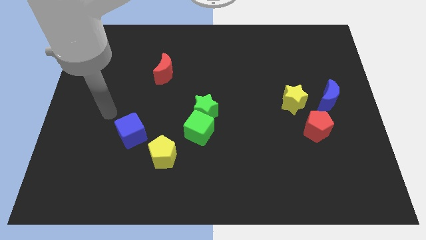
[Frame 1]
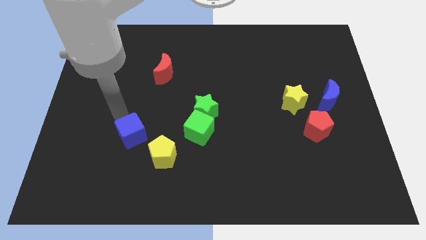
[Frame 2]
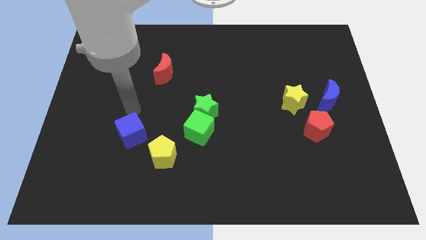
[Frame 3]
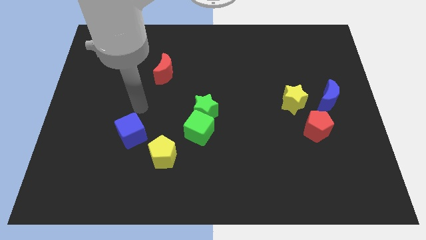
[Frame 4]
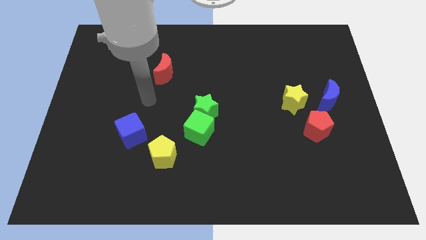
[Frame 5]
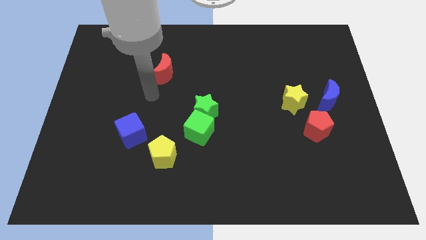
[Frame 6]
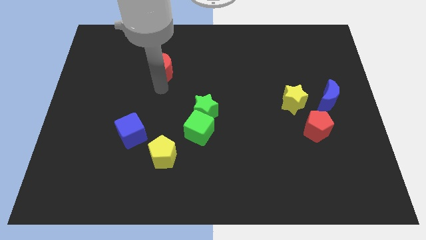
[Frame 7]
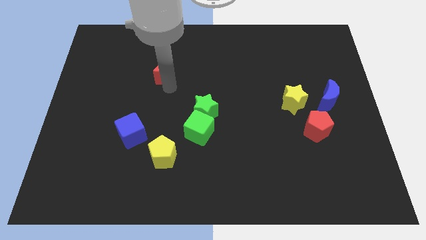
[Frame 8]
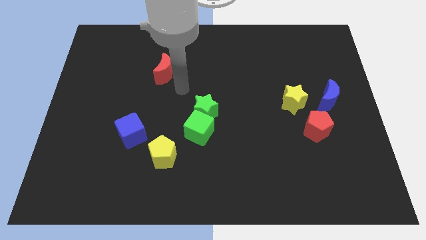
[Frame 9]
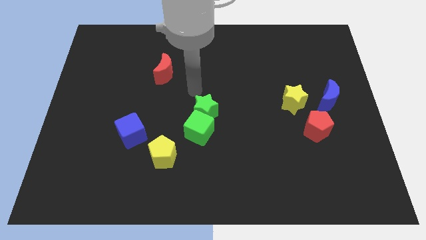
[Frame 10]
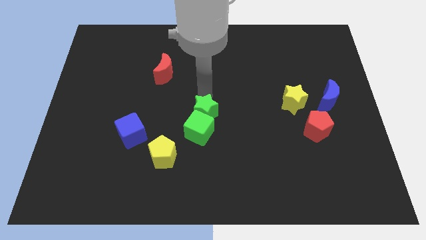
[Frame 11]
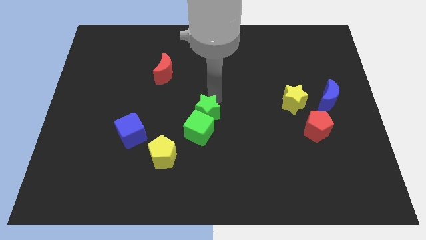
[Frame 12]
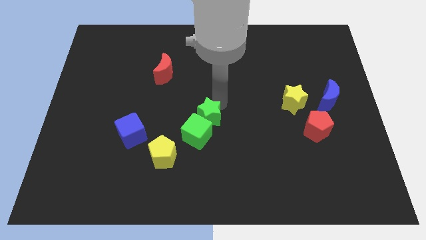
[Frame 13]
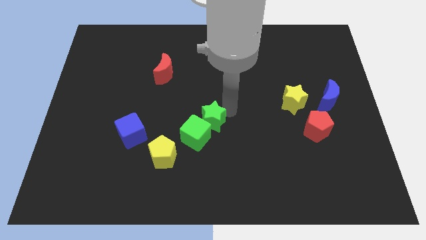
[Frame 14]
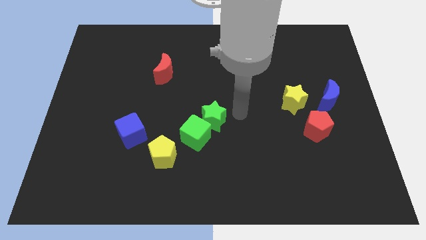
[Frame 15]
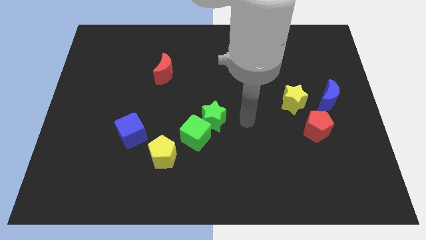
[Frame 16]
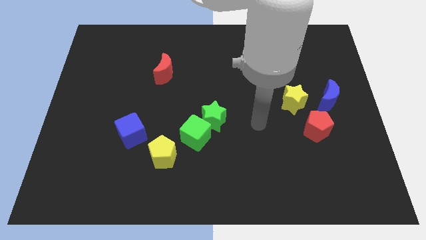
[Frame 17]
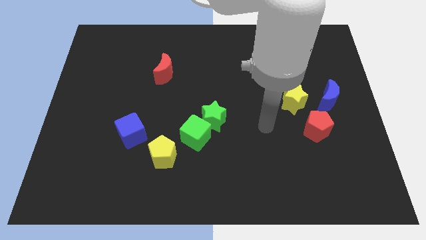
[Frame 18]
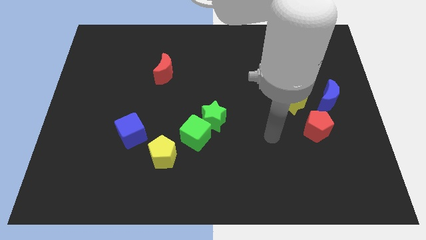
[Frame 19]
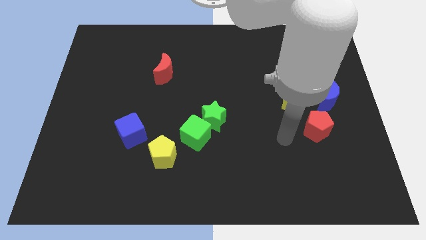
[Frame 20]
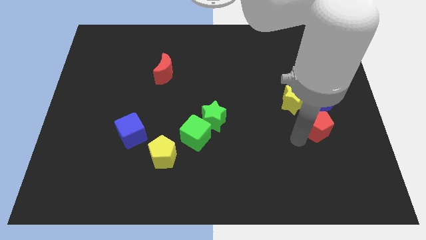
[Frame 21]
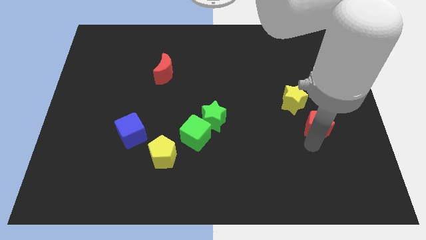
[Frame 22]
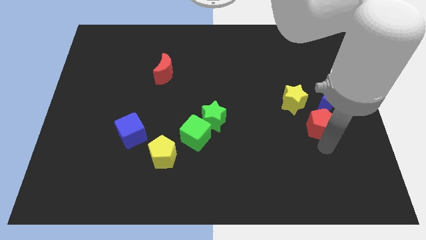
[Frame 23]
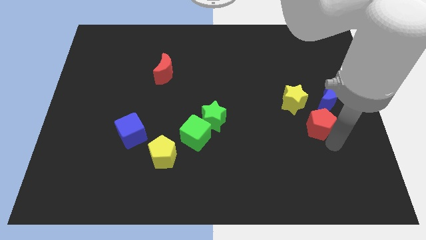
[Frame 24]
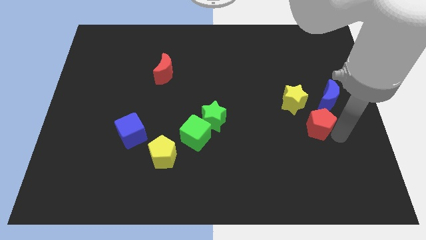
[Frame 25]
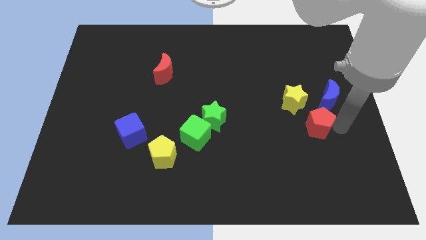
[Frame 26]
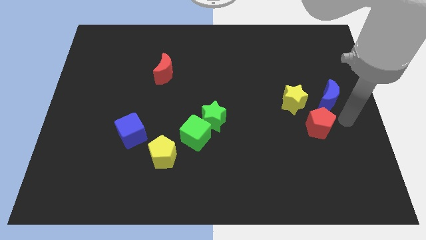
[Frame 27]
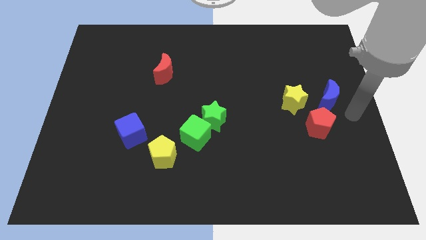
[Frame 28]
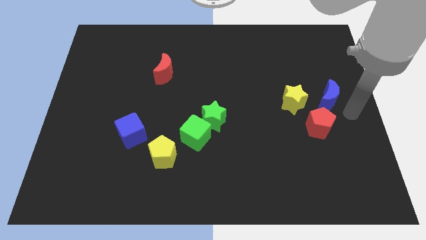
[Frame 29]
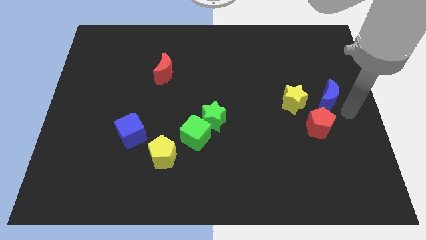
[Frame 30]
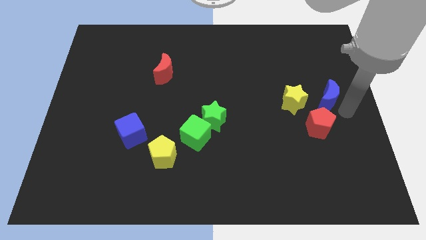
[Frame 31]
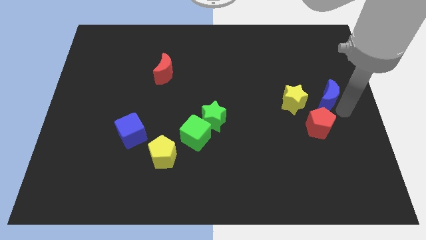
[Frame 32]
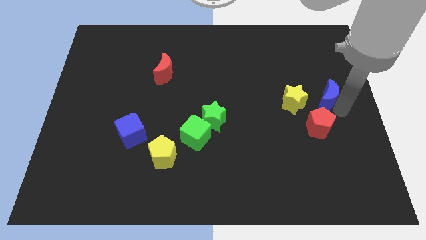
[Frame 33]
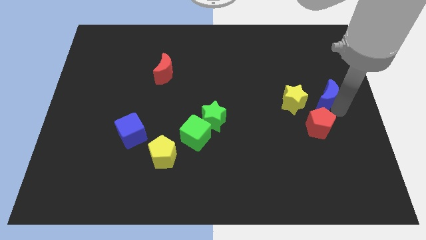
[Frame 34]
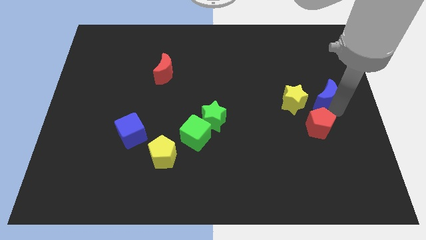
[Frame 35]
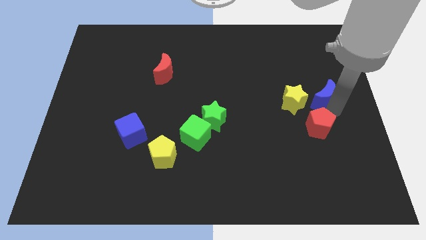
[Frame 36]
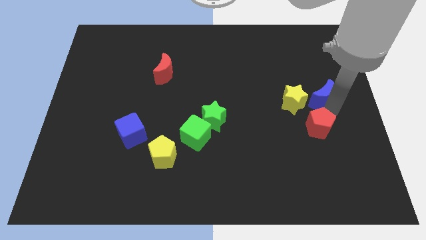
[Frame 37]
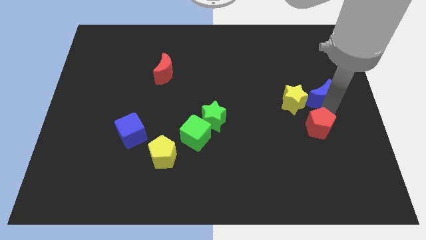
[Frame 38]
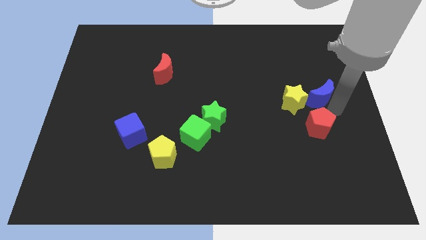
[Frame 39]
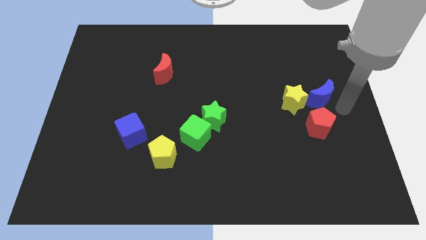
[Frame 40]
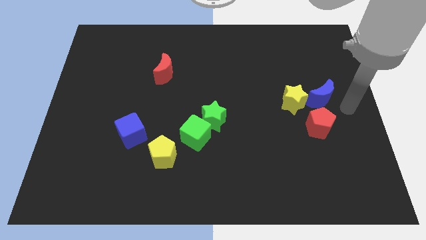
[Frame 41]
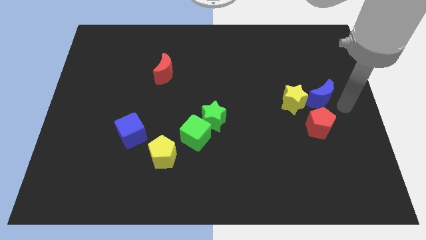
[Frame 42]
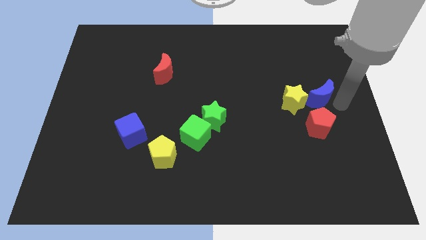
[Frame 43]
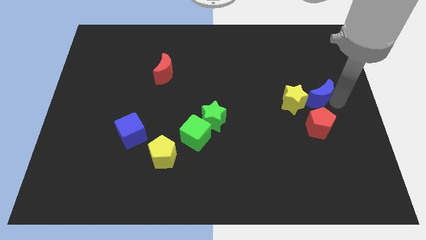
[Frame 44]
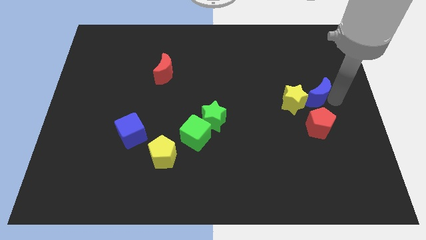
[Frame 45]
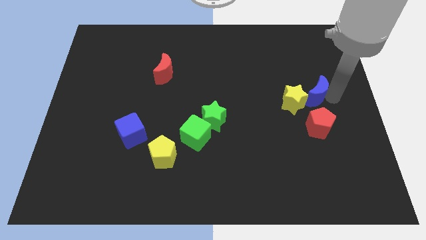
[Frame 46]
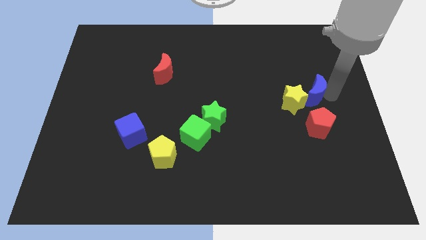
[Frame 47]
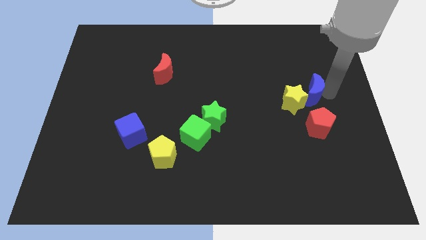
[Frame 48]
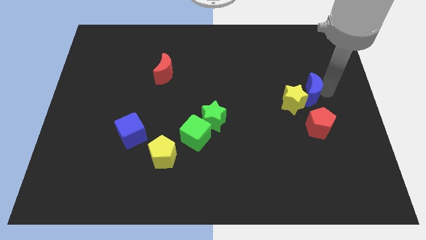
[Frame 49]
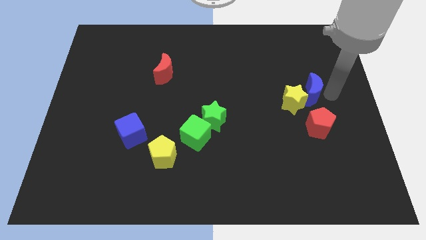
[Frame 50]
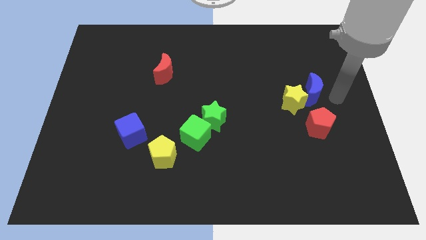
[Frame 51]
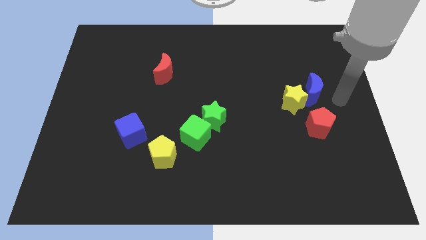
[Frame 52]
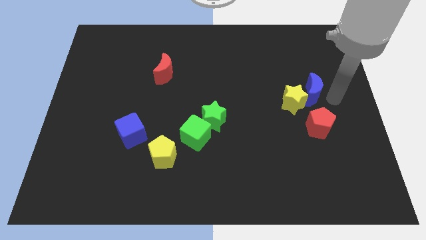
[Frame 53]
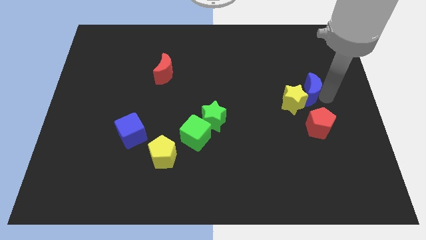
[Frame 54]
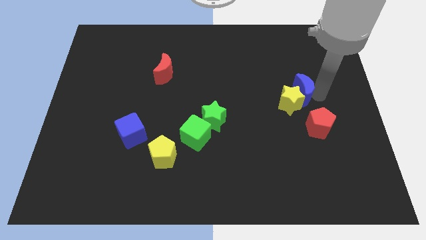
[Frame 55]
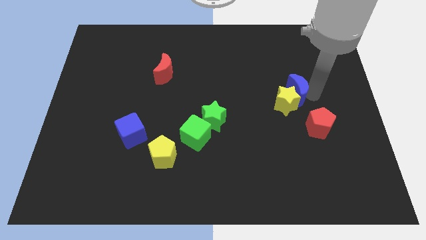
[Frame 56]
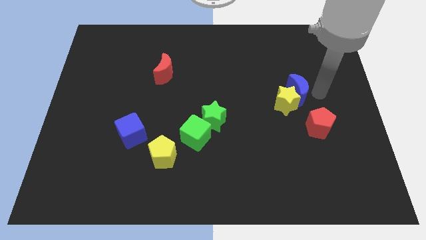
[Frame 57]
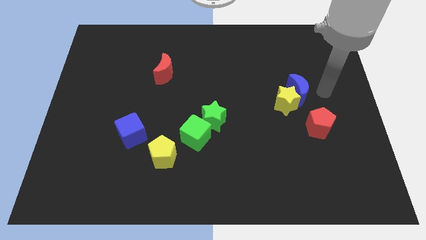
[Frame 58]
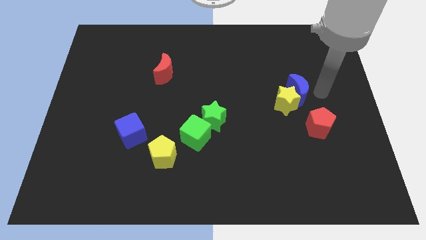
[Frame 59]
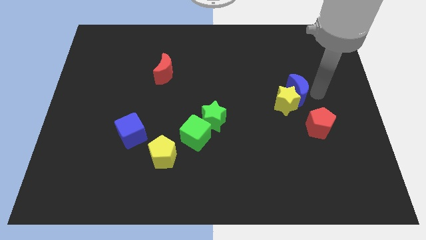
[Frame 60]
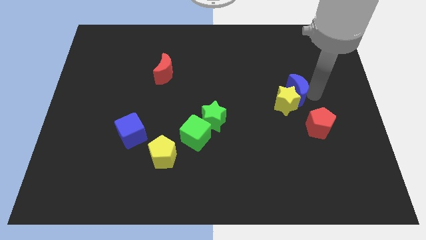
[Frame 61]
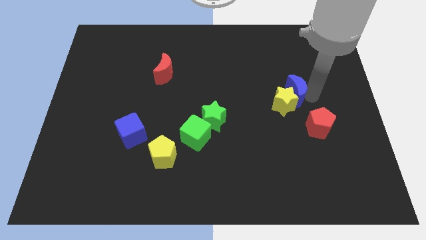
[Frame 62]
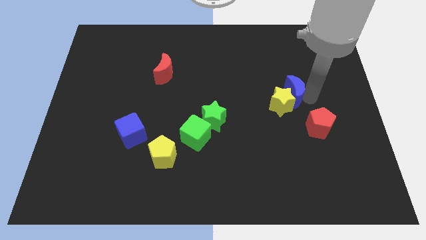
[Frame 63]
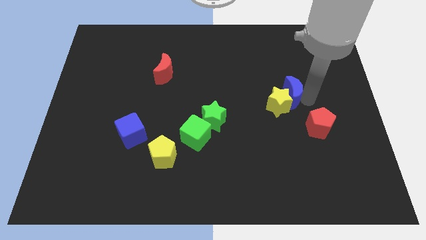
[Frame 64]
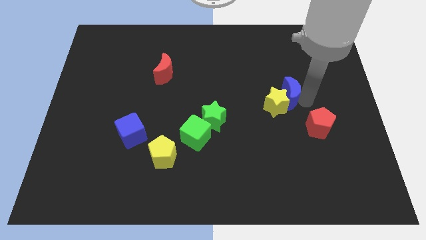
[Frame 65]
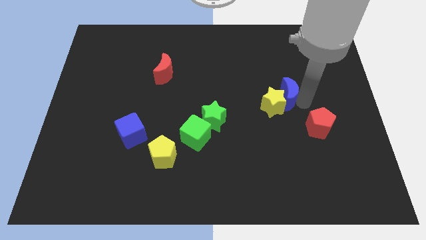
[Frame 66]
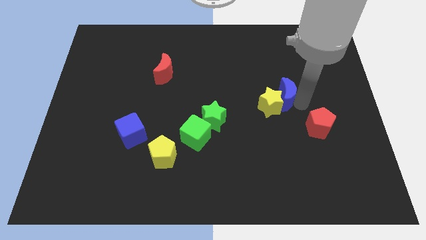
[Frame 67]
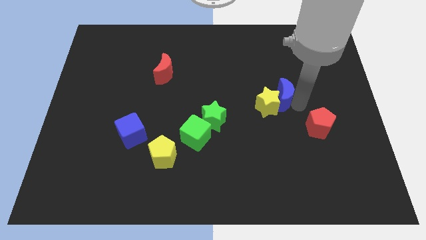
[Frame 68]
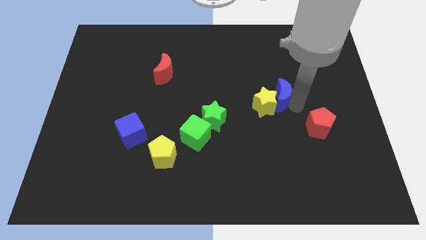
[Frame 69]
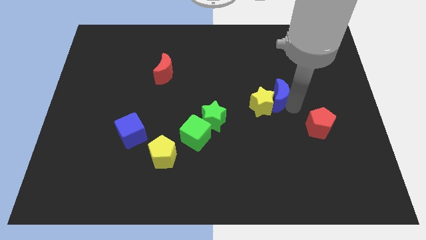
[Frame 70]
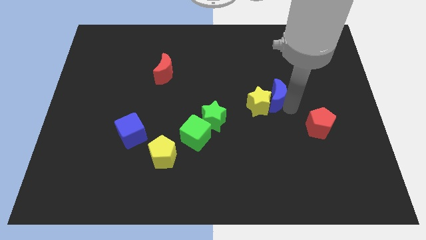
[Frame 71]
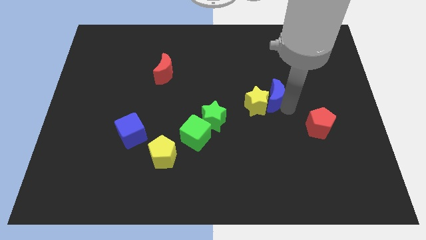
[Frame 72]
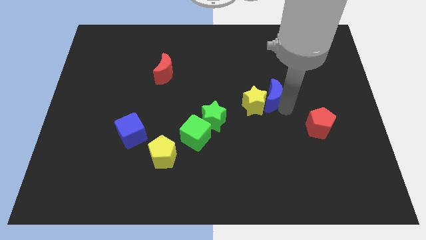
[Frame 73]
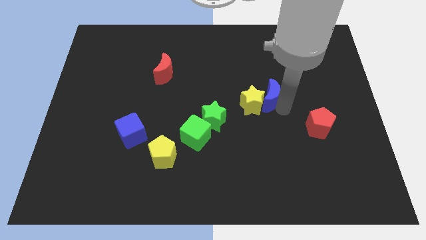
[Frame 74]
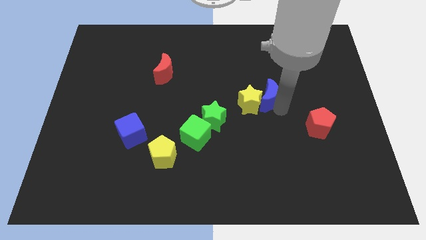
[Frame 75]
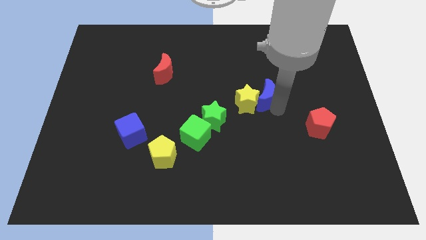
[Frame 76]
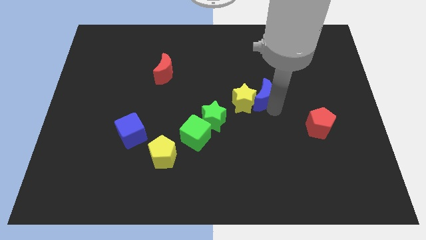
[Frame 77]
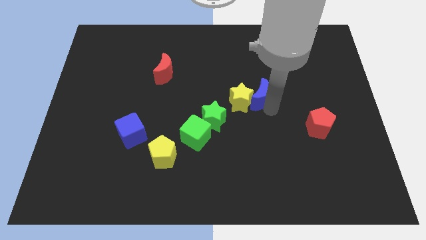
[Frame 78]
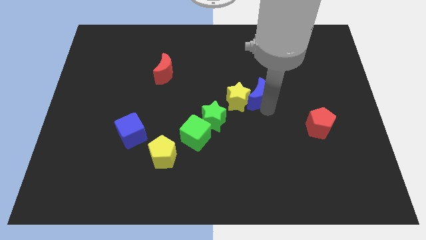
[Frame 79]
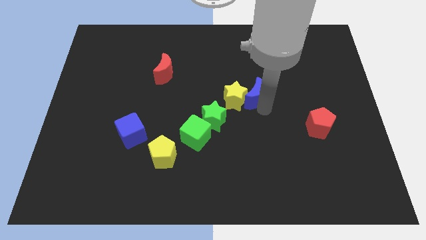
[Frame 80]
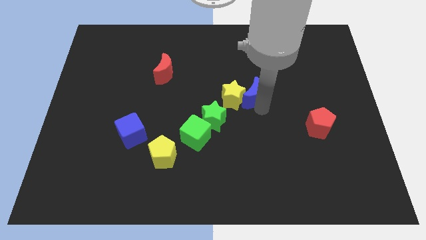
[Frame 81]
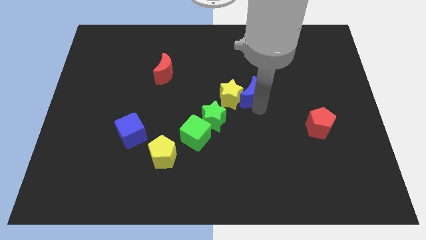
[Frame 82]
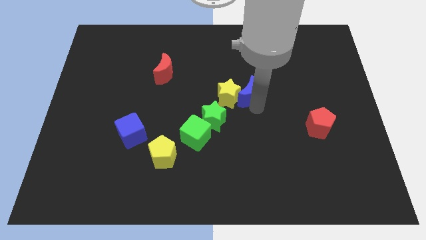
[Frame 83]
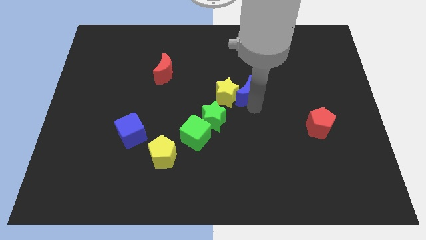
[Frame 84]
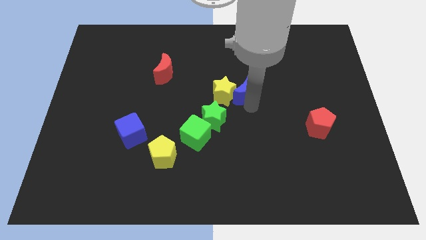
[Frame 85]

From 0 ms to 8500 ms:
slide the blue moon to the left
